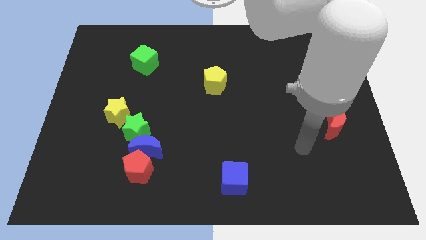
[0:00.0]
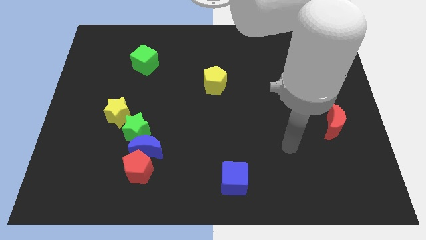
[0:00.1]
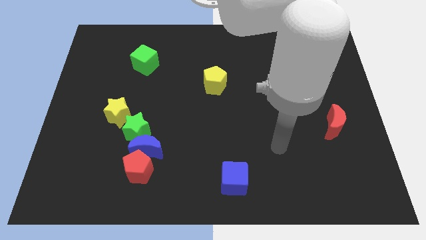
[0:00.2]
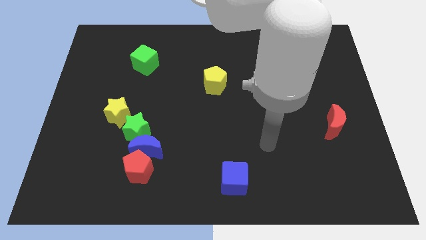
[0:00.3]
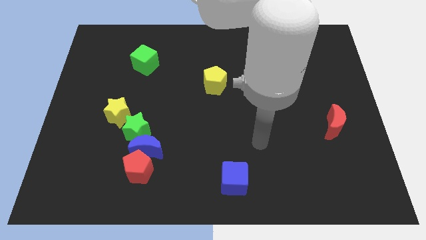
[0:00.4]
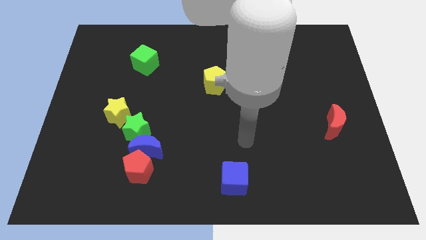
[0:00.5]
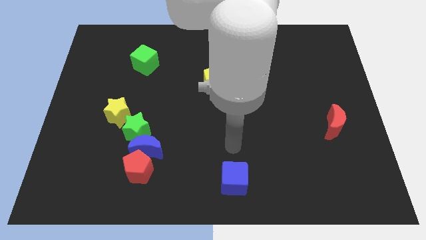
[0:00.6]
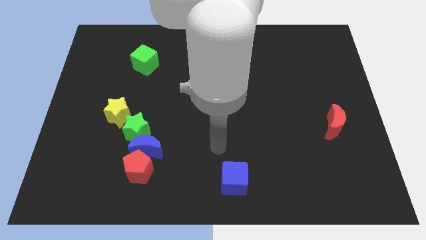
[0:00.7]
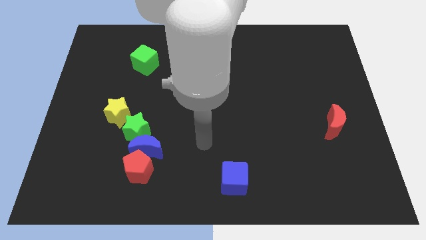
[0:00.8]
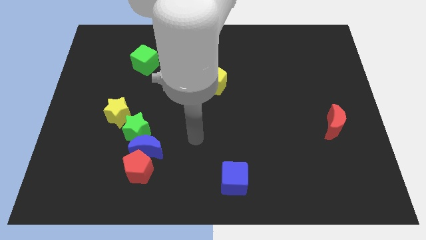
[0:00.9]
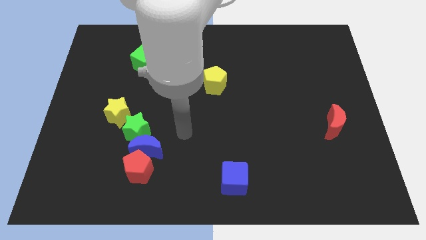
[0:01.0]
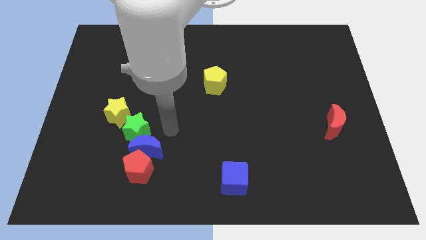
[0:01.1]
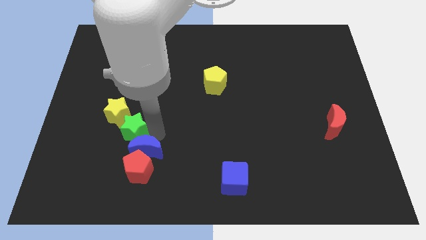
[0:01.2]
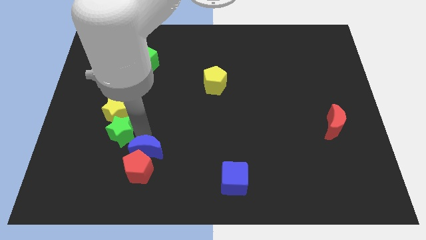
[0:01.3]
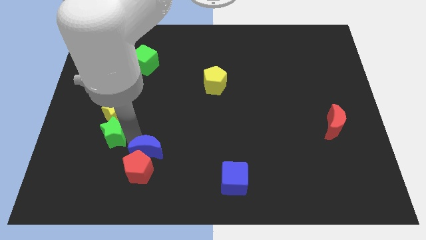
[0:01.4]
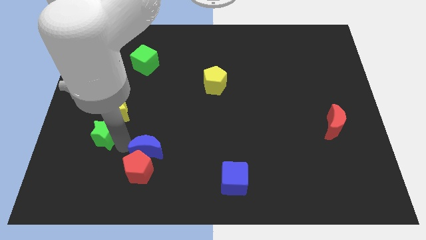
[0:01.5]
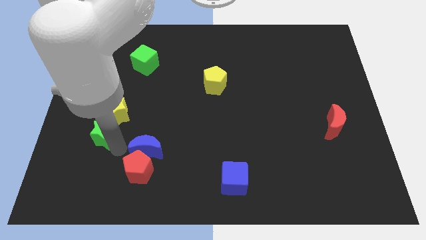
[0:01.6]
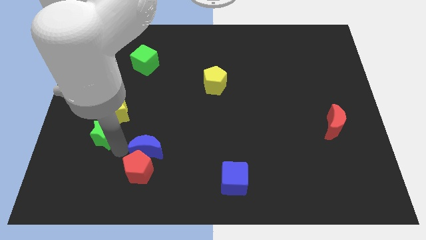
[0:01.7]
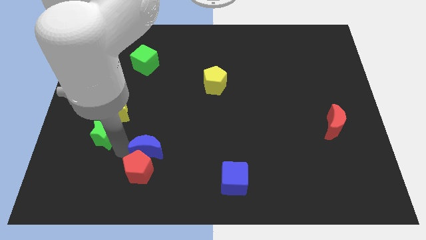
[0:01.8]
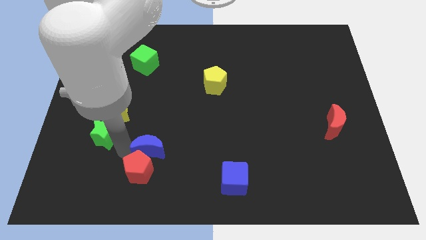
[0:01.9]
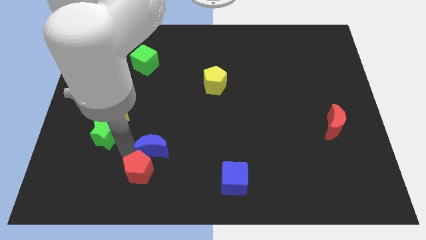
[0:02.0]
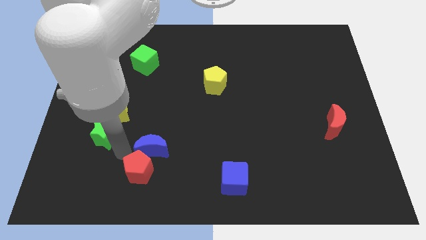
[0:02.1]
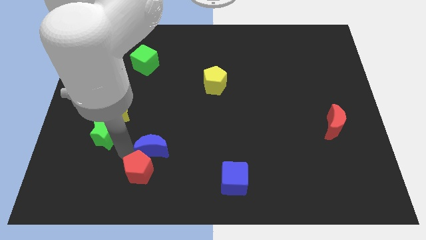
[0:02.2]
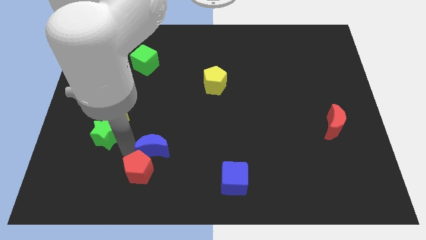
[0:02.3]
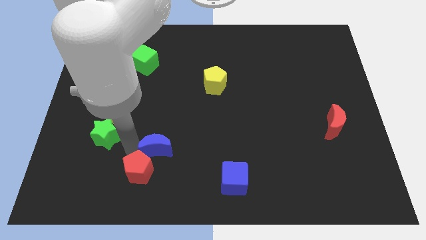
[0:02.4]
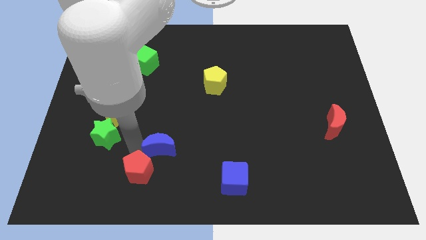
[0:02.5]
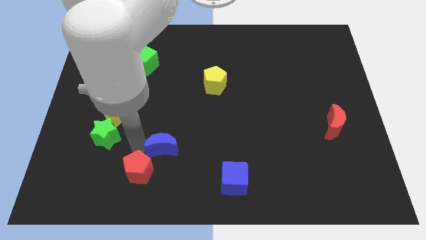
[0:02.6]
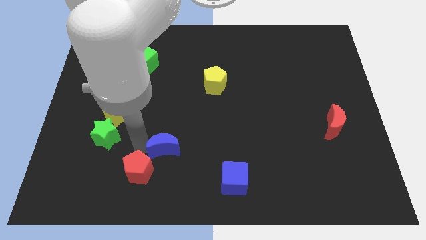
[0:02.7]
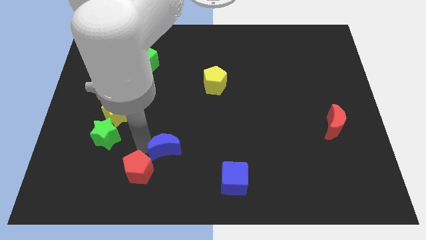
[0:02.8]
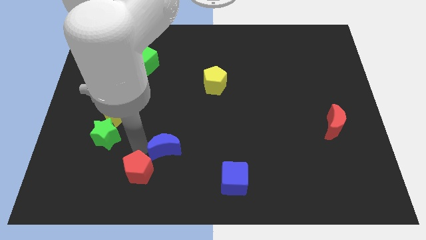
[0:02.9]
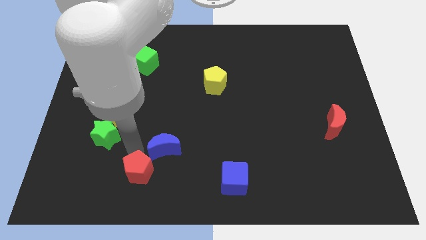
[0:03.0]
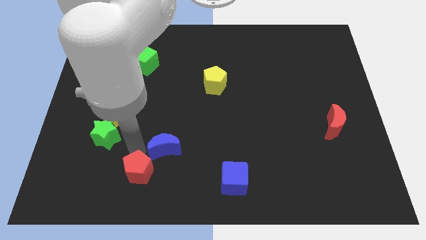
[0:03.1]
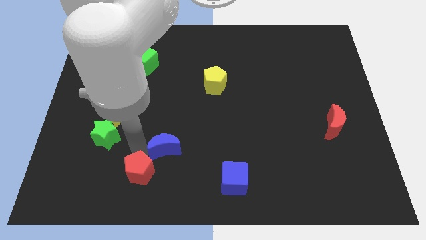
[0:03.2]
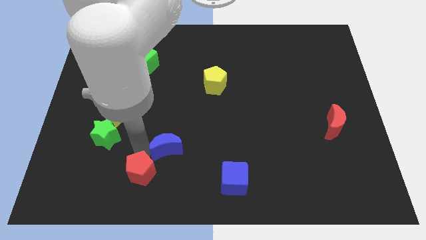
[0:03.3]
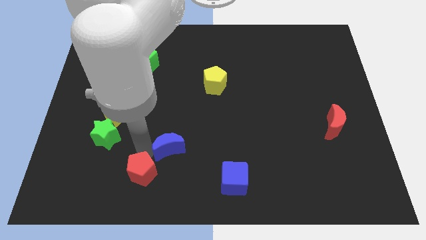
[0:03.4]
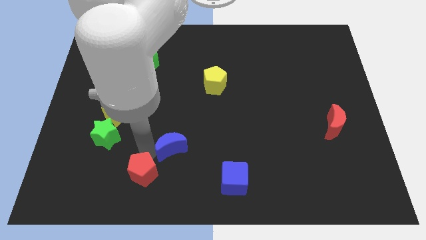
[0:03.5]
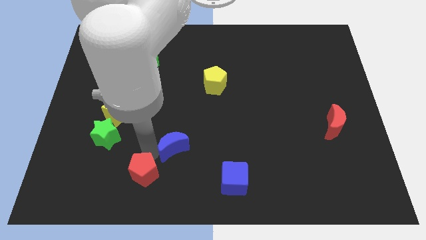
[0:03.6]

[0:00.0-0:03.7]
pull the blue moon apart from the red pentagon and green star

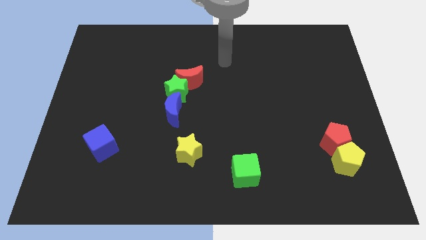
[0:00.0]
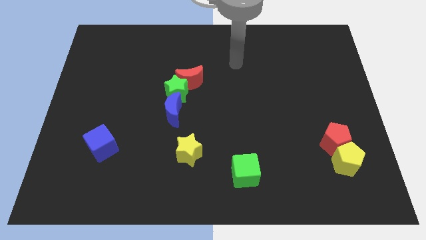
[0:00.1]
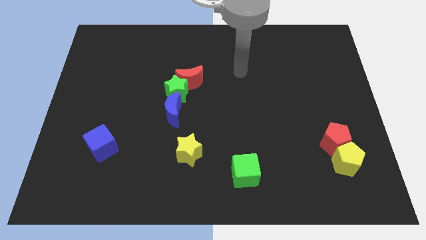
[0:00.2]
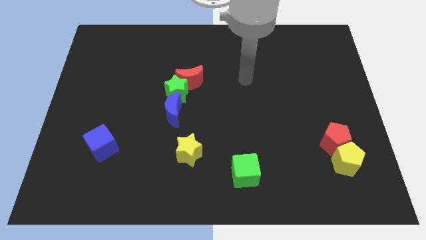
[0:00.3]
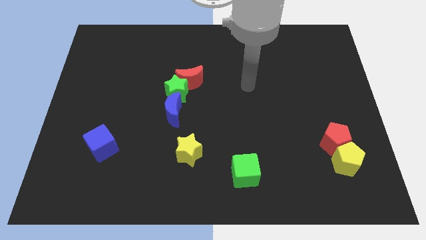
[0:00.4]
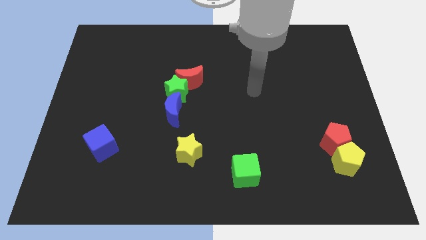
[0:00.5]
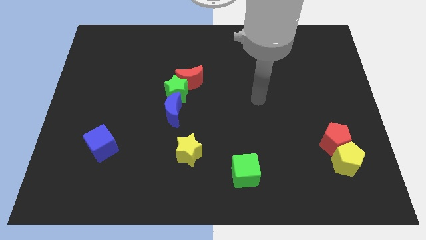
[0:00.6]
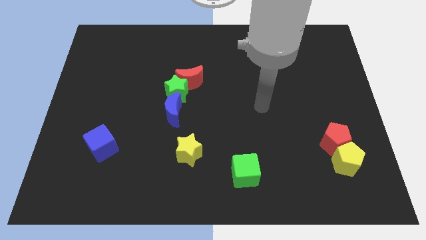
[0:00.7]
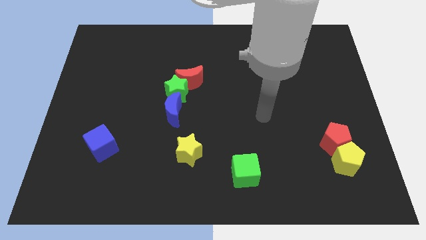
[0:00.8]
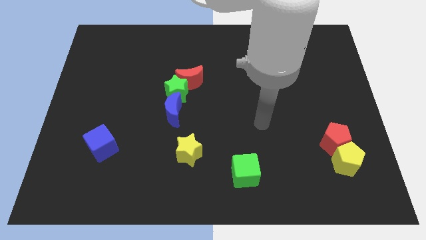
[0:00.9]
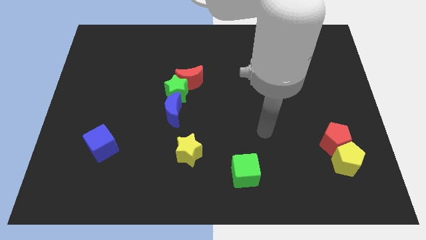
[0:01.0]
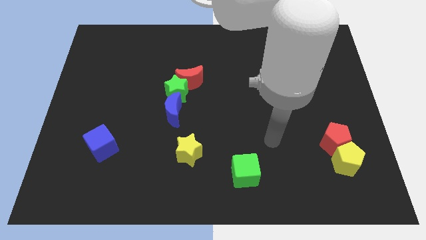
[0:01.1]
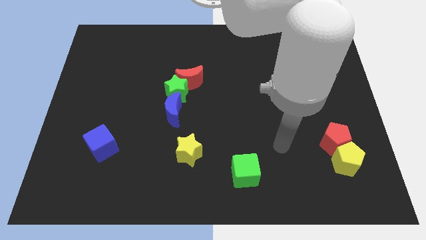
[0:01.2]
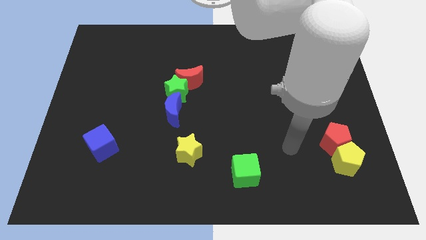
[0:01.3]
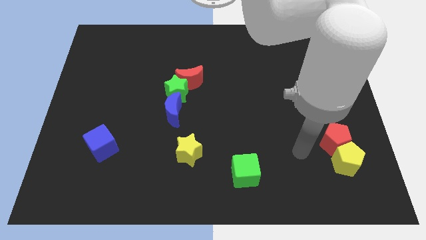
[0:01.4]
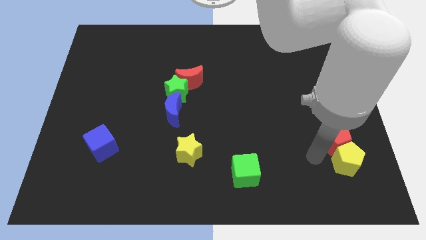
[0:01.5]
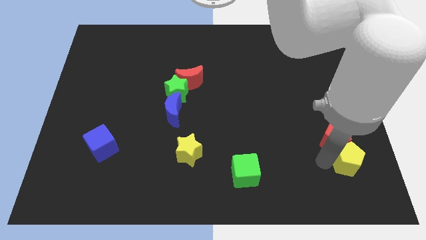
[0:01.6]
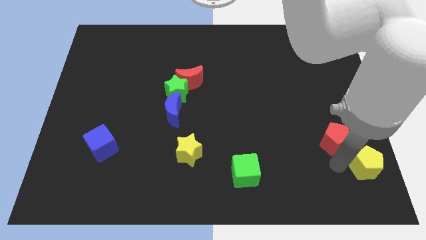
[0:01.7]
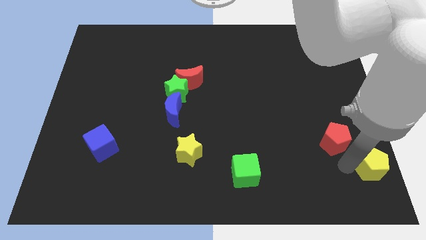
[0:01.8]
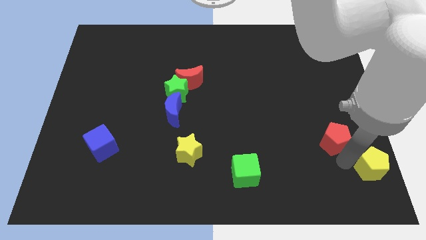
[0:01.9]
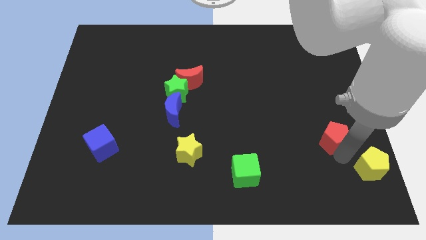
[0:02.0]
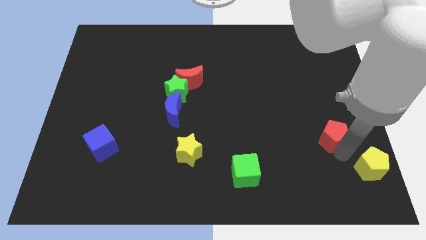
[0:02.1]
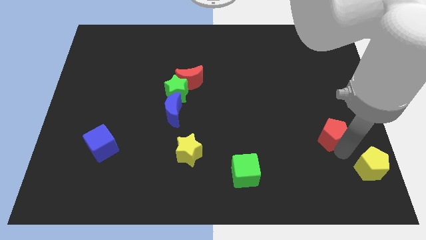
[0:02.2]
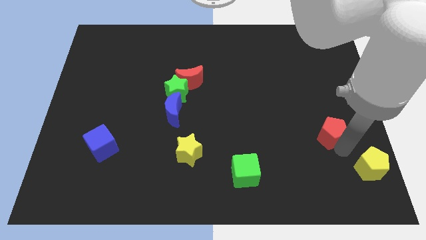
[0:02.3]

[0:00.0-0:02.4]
pull the red pentagon apart from the yellow pentagon

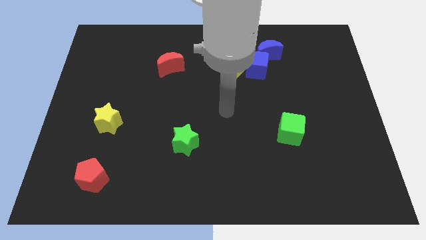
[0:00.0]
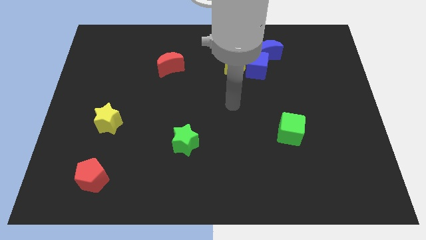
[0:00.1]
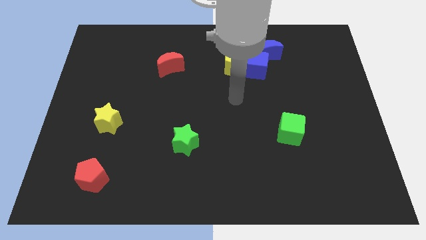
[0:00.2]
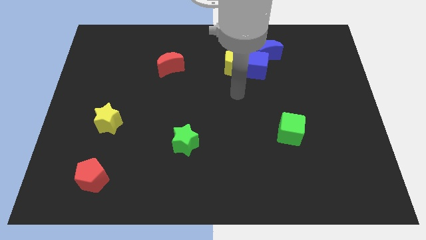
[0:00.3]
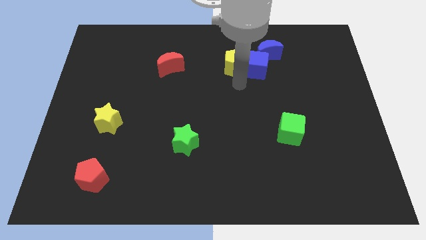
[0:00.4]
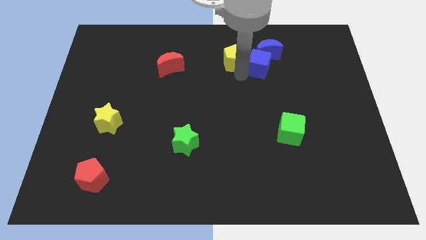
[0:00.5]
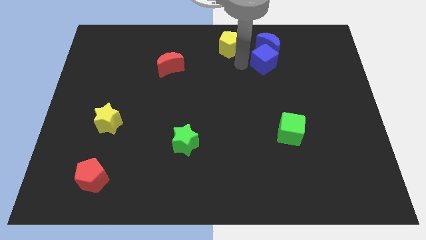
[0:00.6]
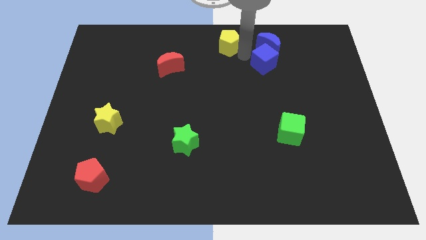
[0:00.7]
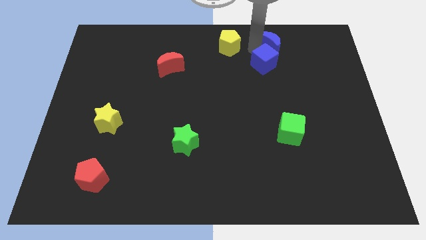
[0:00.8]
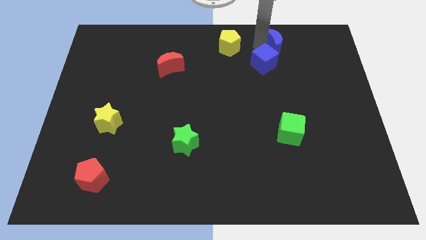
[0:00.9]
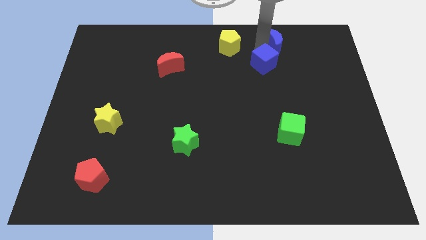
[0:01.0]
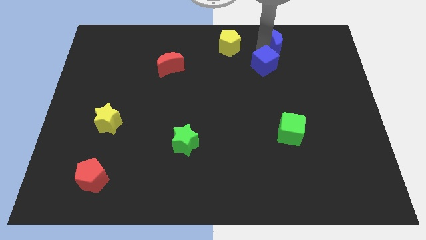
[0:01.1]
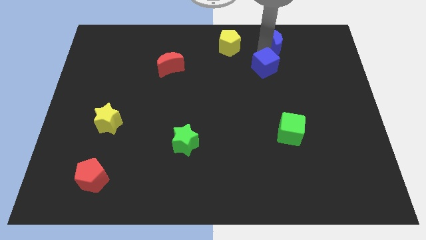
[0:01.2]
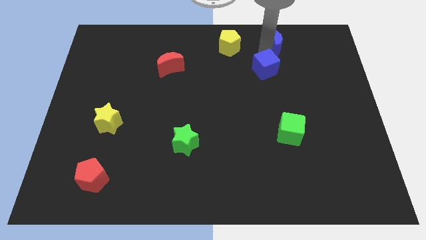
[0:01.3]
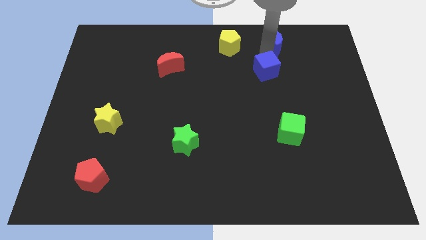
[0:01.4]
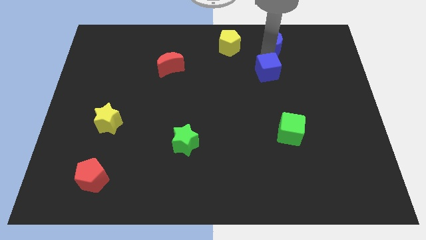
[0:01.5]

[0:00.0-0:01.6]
pull the blue cube apart from the yellow pentagon and blue moon

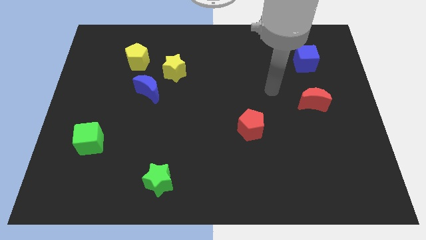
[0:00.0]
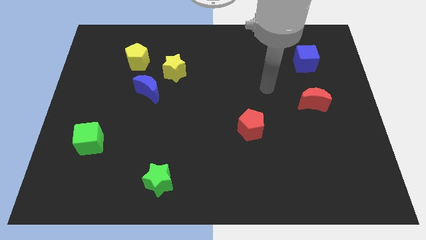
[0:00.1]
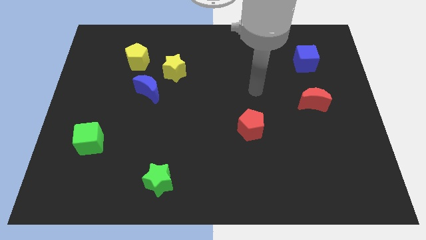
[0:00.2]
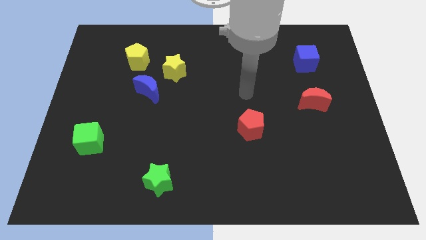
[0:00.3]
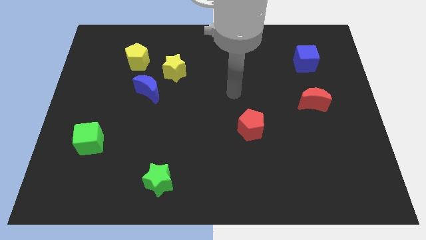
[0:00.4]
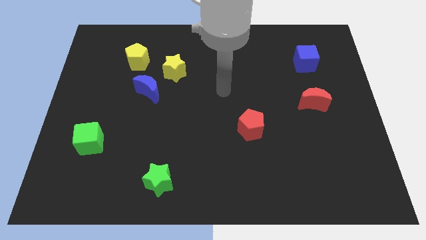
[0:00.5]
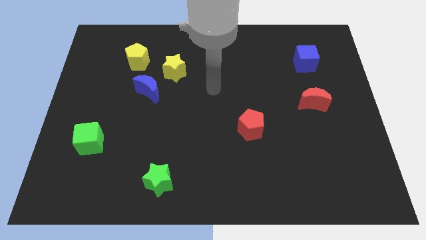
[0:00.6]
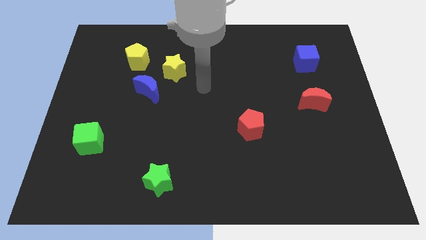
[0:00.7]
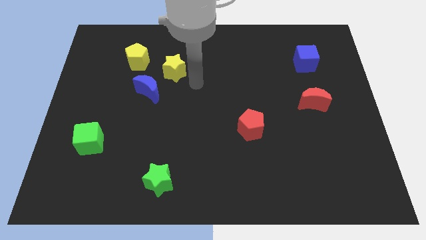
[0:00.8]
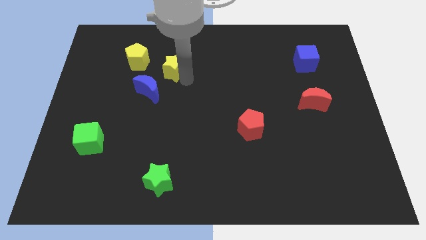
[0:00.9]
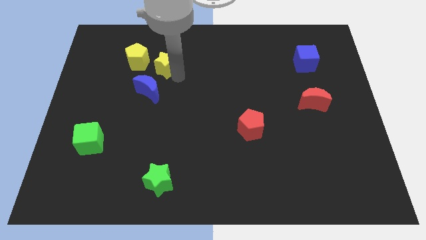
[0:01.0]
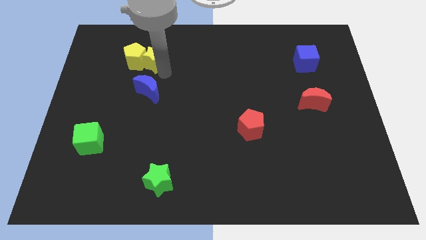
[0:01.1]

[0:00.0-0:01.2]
separate the blue moon from the yellow star

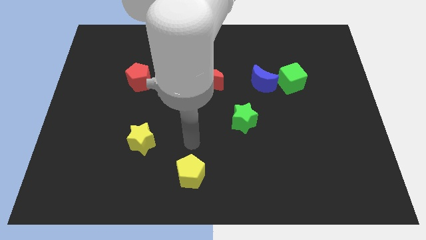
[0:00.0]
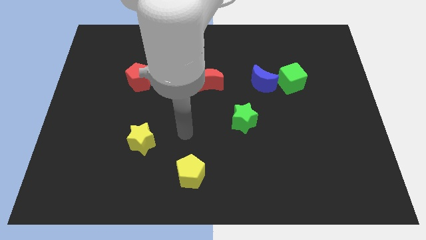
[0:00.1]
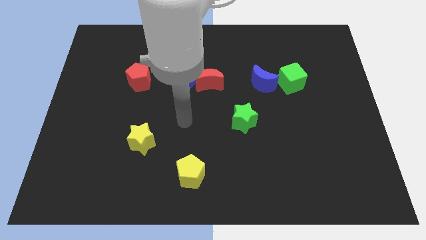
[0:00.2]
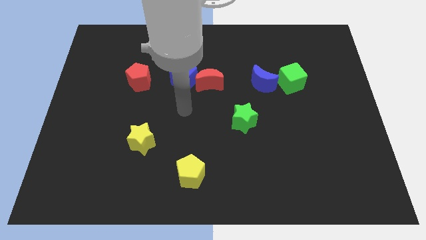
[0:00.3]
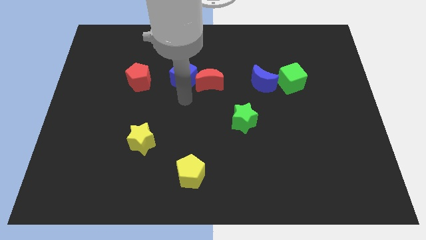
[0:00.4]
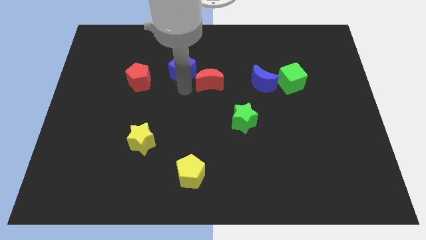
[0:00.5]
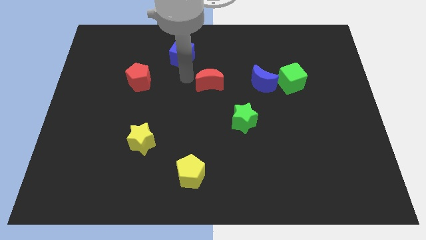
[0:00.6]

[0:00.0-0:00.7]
separate the red moon from the blue cube
